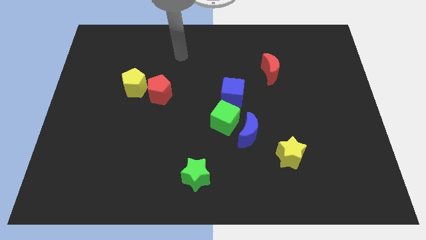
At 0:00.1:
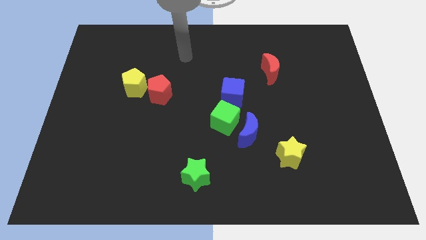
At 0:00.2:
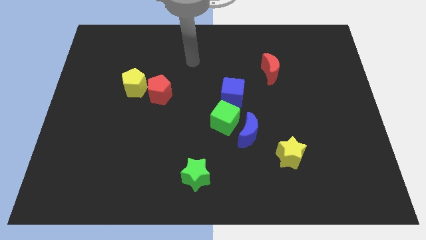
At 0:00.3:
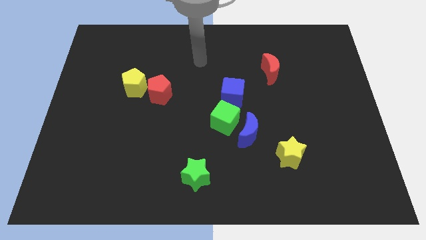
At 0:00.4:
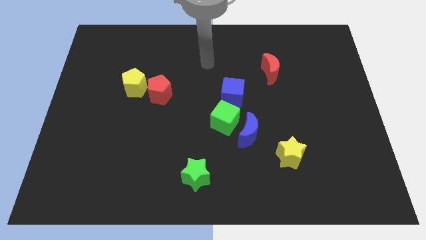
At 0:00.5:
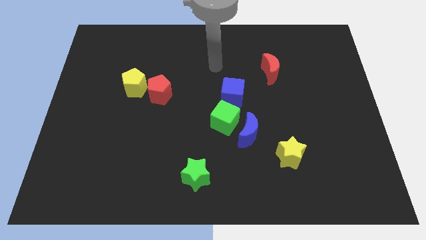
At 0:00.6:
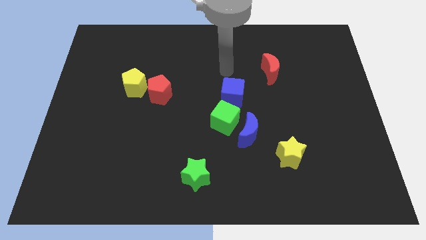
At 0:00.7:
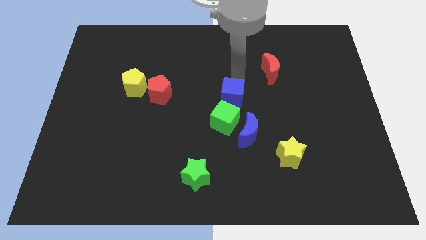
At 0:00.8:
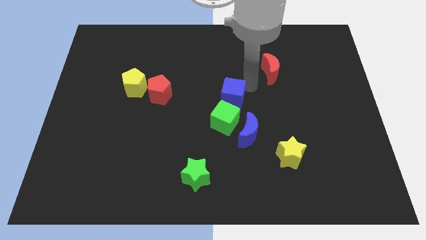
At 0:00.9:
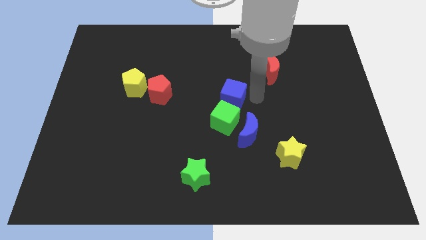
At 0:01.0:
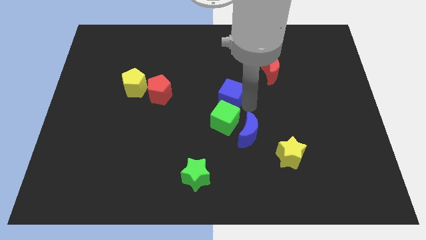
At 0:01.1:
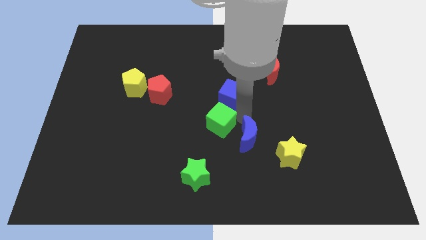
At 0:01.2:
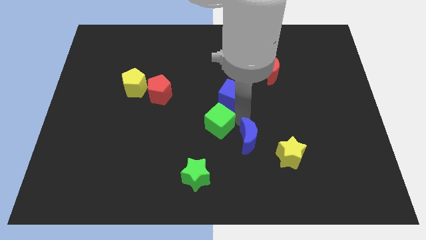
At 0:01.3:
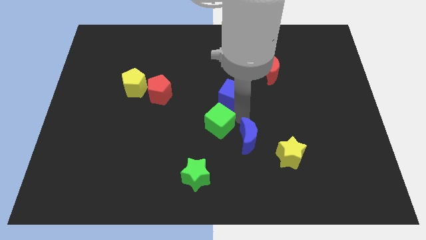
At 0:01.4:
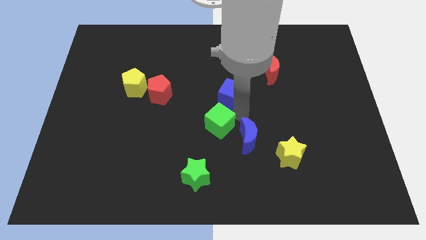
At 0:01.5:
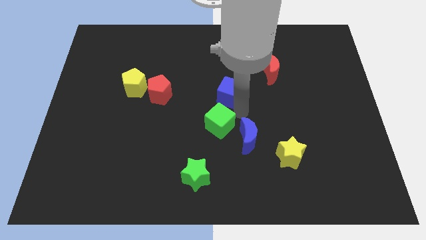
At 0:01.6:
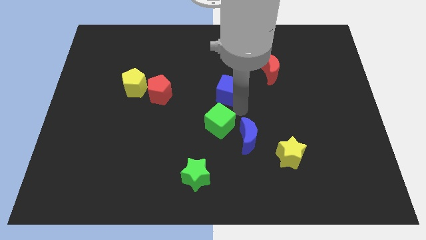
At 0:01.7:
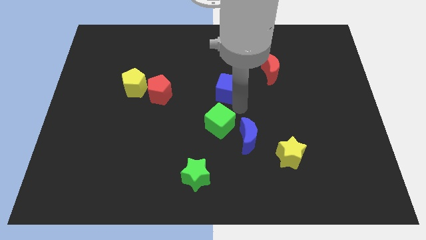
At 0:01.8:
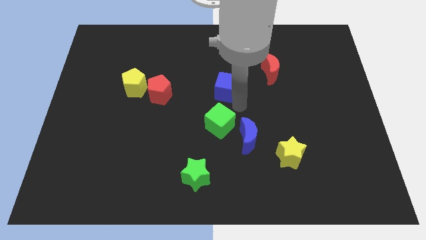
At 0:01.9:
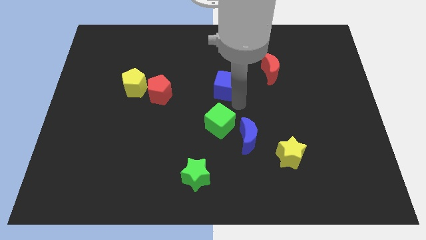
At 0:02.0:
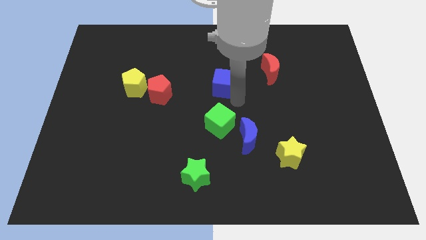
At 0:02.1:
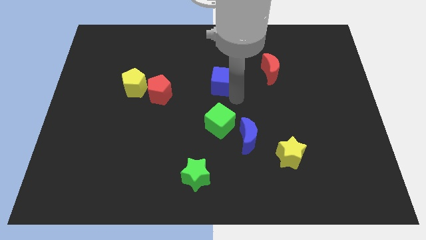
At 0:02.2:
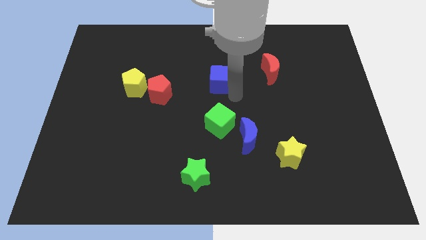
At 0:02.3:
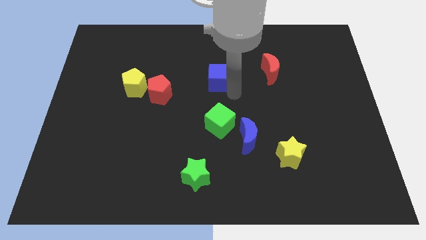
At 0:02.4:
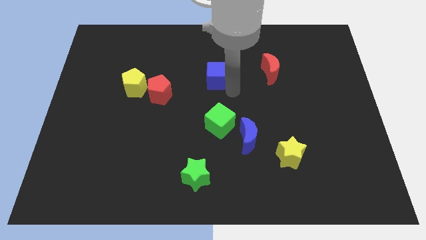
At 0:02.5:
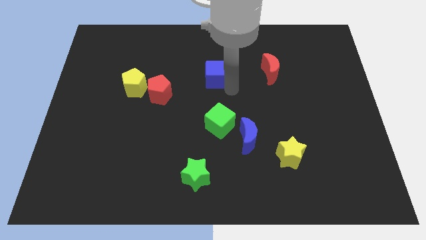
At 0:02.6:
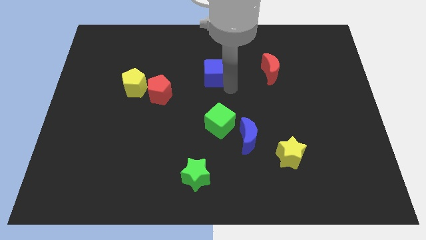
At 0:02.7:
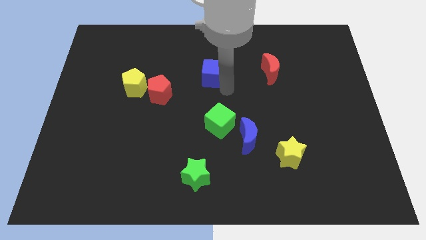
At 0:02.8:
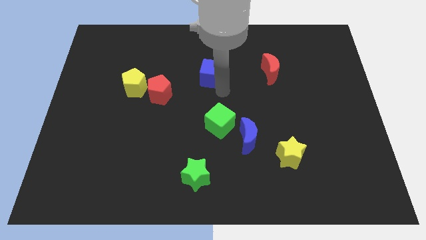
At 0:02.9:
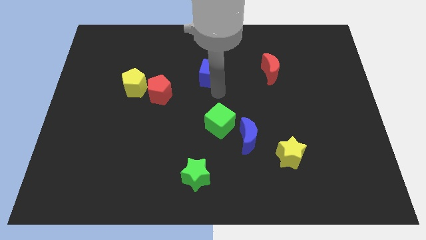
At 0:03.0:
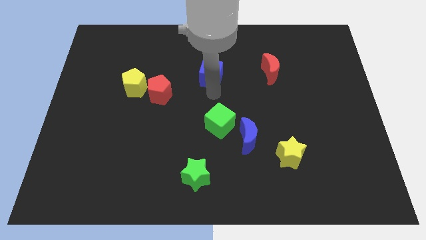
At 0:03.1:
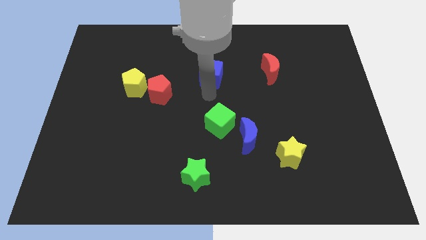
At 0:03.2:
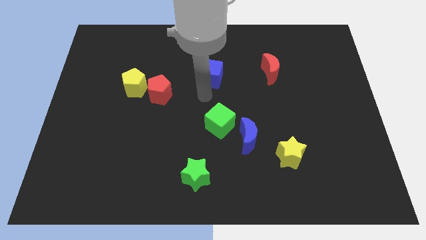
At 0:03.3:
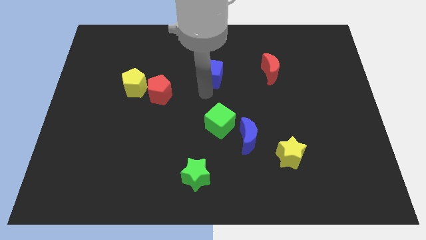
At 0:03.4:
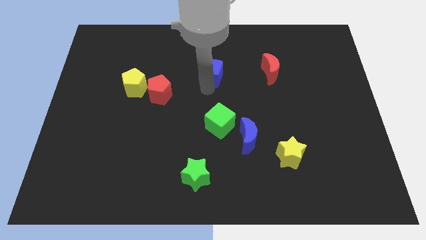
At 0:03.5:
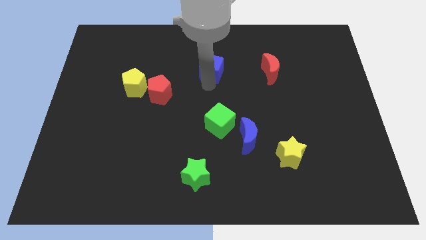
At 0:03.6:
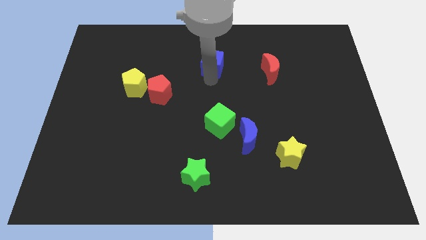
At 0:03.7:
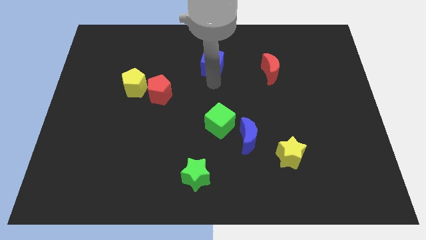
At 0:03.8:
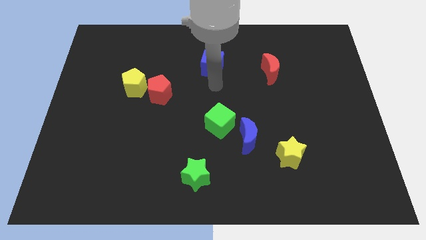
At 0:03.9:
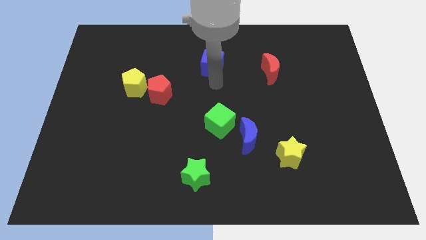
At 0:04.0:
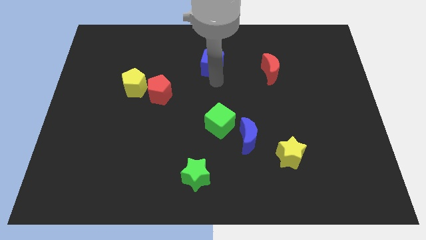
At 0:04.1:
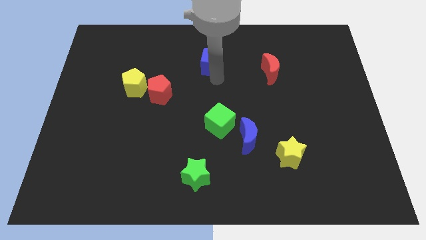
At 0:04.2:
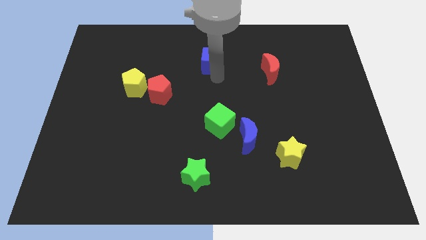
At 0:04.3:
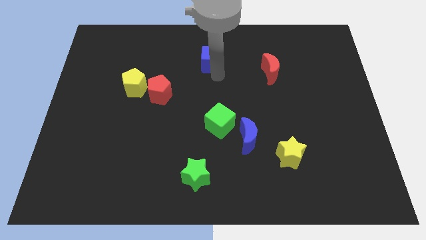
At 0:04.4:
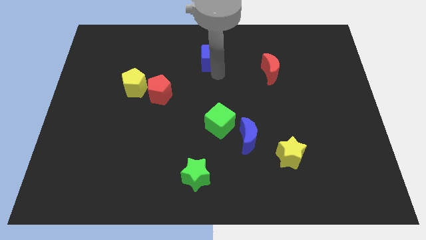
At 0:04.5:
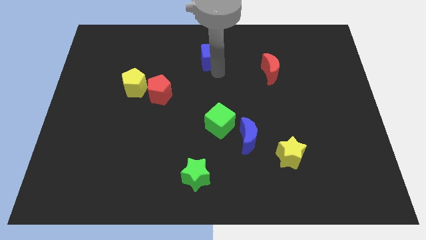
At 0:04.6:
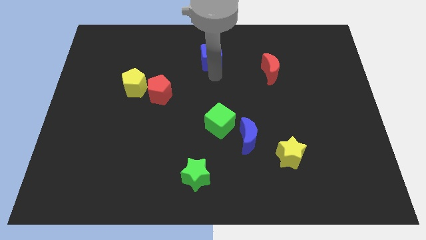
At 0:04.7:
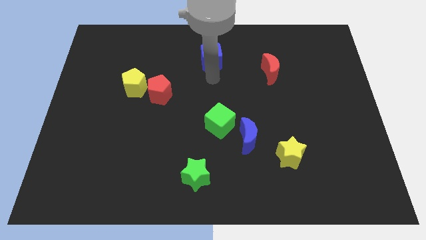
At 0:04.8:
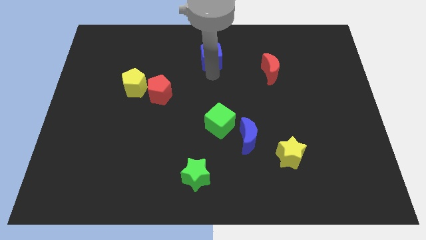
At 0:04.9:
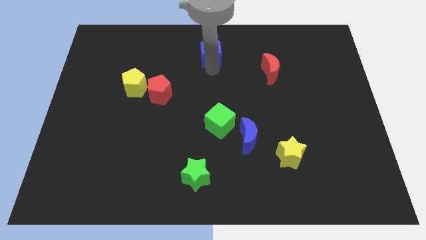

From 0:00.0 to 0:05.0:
slide the blue cube to the top

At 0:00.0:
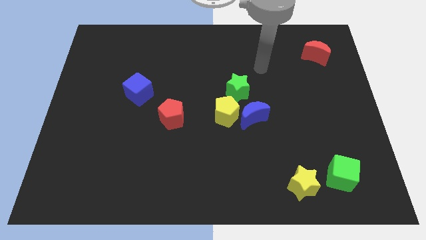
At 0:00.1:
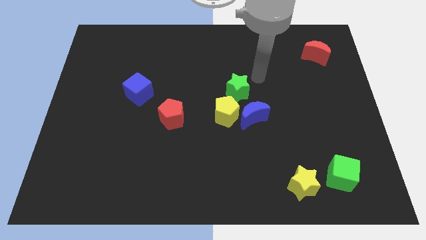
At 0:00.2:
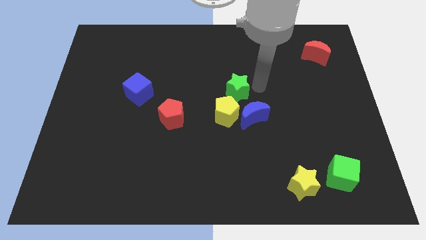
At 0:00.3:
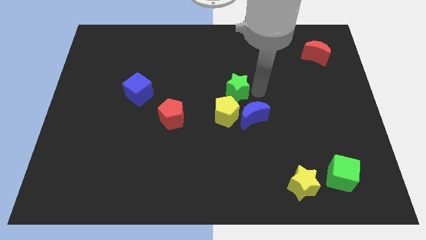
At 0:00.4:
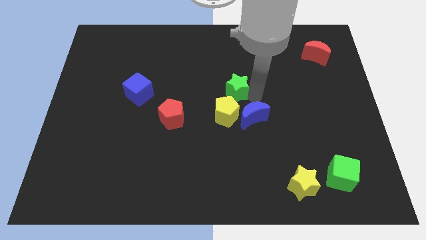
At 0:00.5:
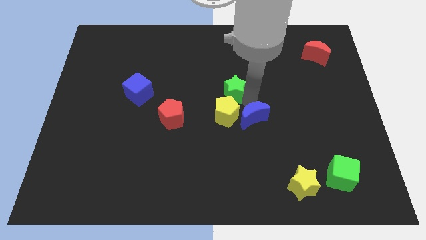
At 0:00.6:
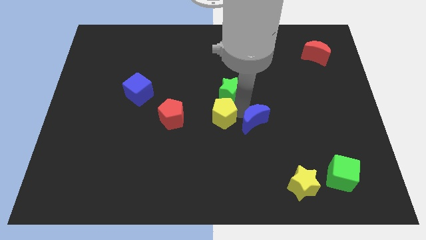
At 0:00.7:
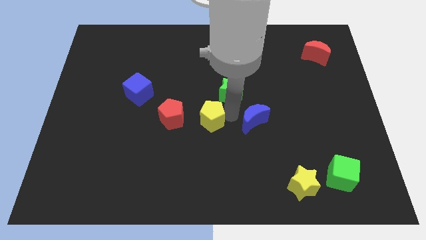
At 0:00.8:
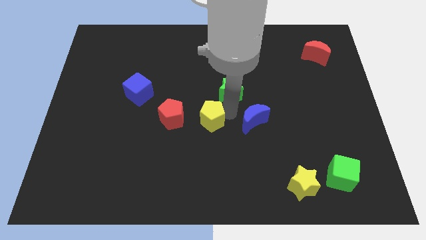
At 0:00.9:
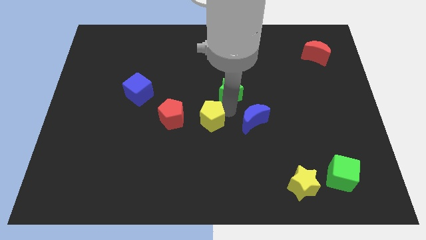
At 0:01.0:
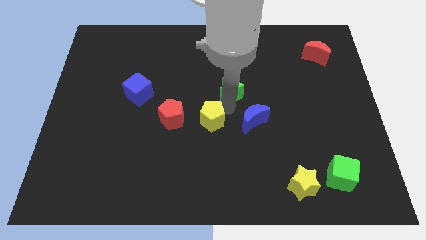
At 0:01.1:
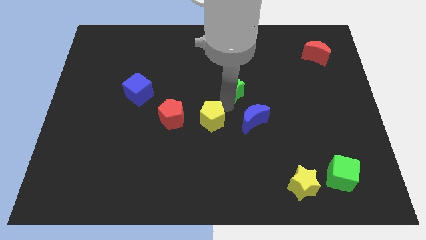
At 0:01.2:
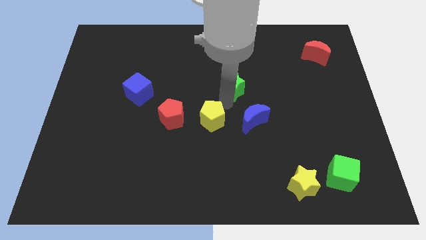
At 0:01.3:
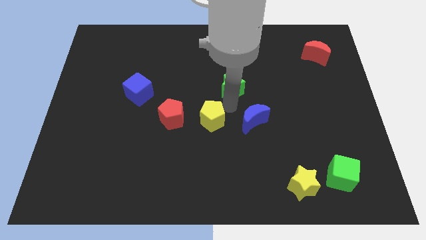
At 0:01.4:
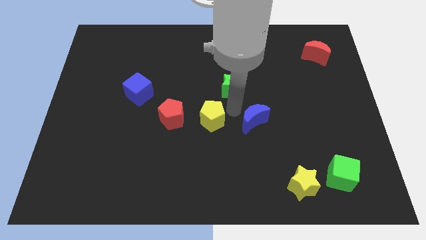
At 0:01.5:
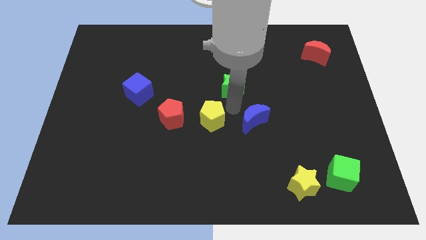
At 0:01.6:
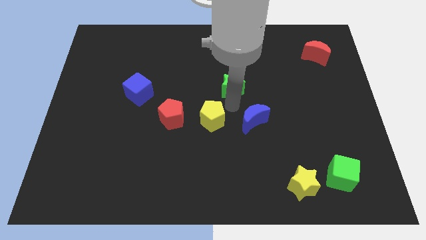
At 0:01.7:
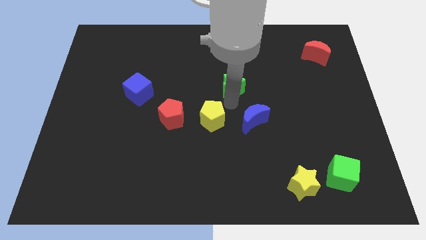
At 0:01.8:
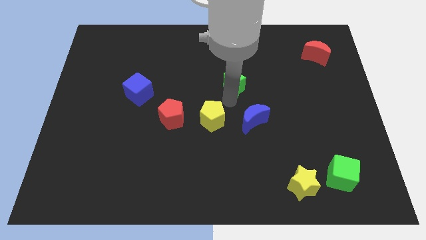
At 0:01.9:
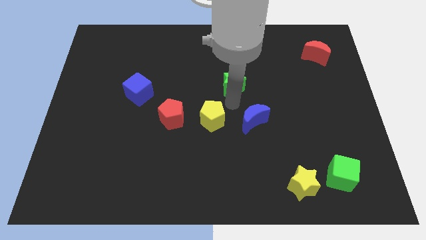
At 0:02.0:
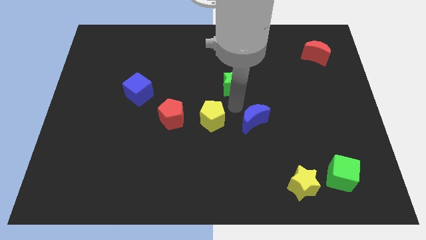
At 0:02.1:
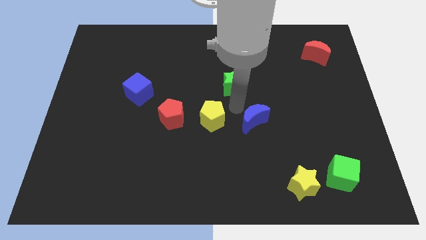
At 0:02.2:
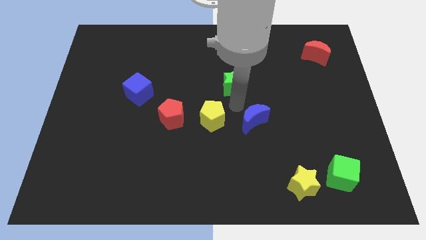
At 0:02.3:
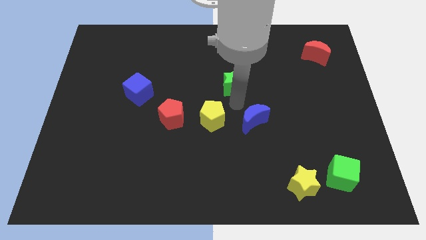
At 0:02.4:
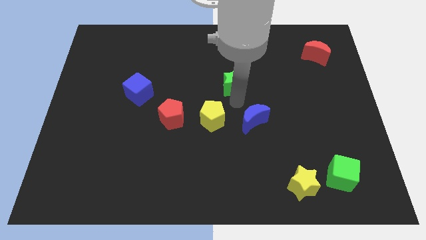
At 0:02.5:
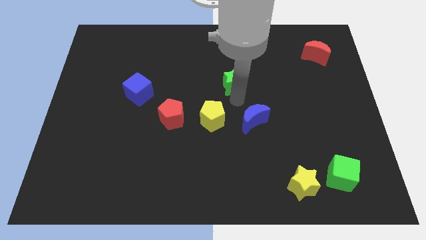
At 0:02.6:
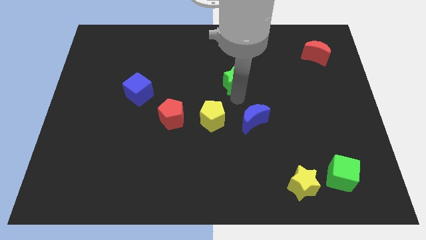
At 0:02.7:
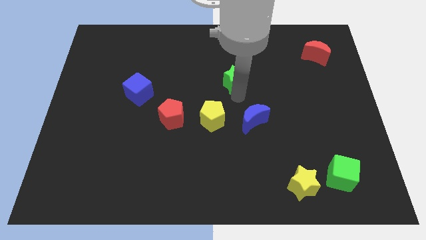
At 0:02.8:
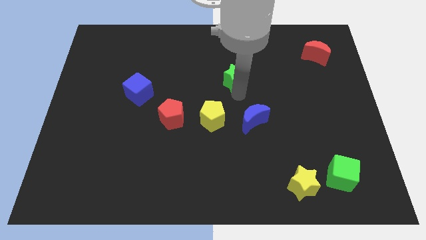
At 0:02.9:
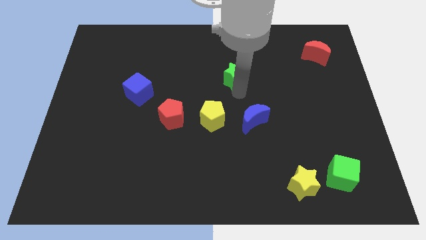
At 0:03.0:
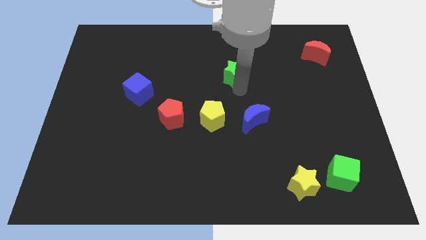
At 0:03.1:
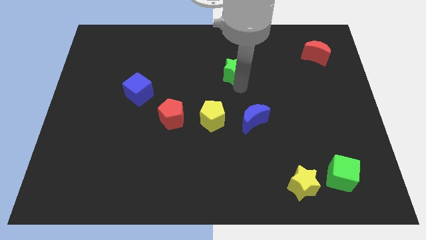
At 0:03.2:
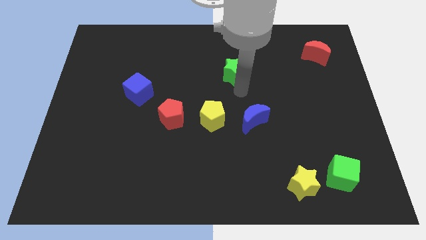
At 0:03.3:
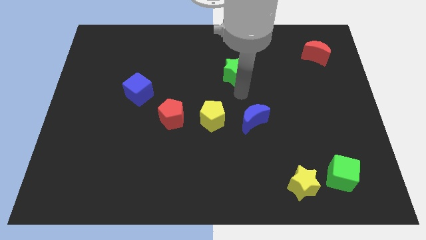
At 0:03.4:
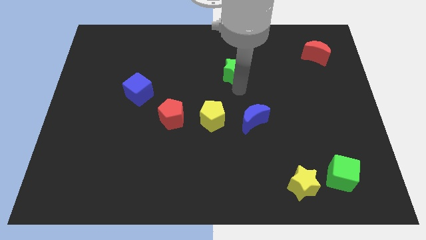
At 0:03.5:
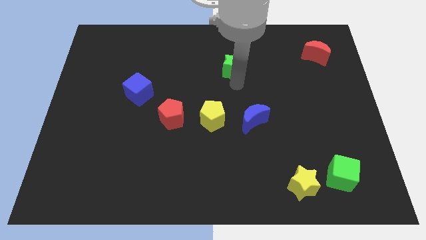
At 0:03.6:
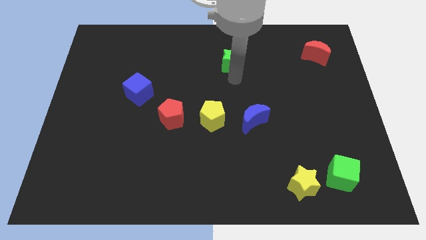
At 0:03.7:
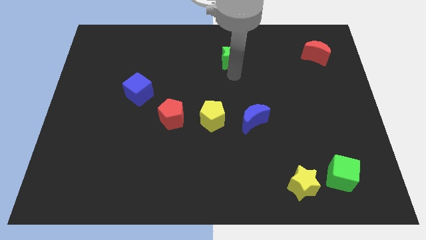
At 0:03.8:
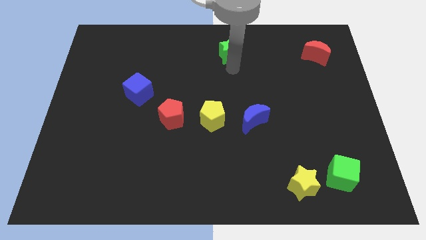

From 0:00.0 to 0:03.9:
move the green star to the top side
